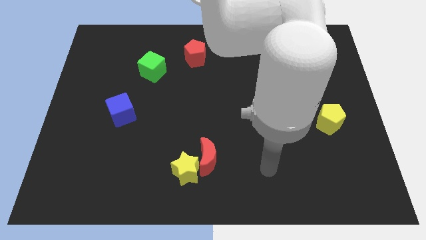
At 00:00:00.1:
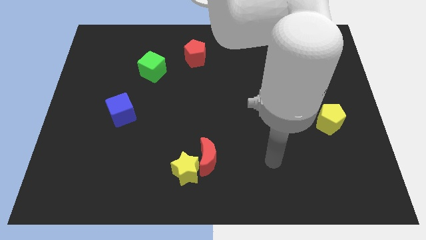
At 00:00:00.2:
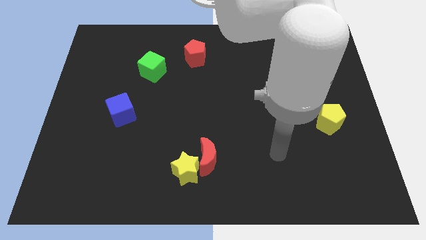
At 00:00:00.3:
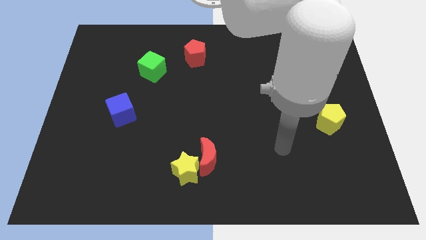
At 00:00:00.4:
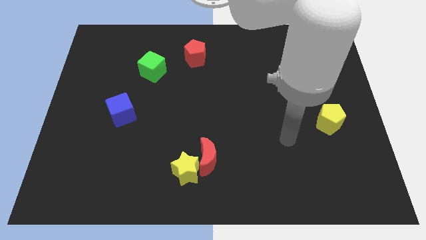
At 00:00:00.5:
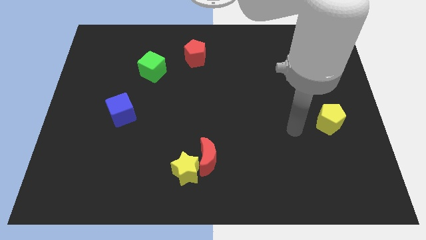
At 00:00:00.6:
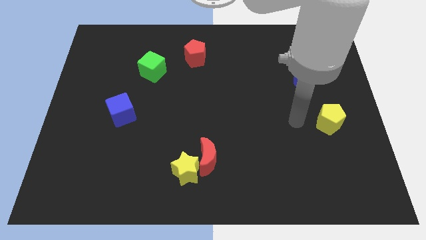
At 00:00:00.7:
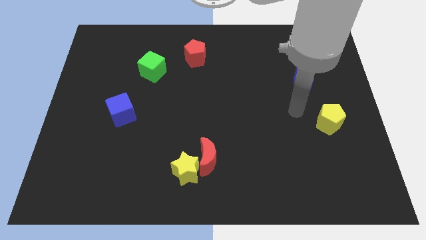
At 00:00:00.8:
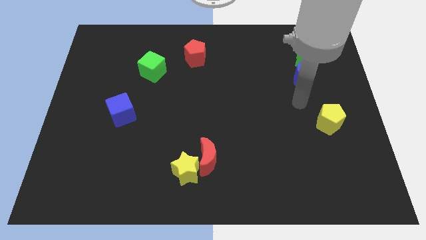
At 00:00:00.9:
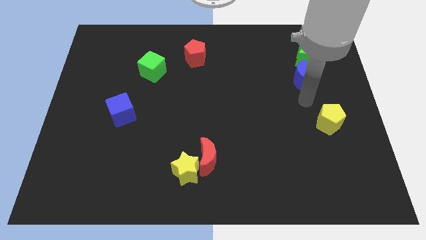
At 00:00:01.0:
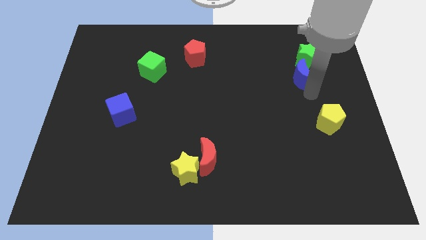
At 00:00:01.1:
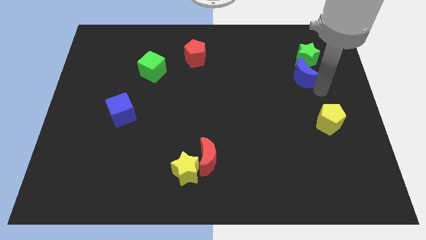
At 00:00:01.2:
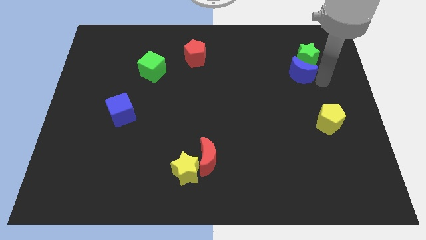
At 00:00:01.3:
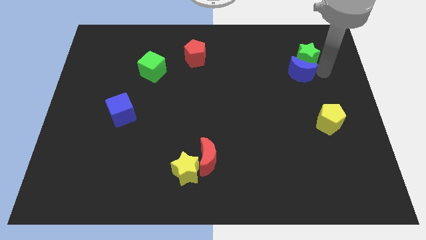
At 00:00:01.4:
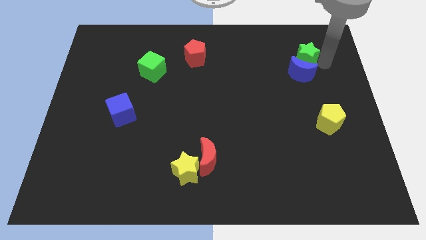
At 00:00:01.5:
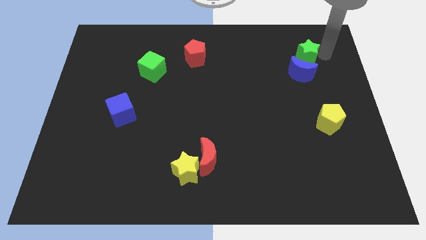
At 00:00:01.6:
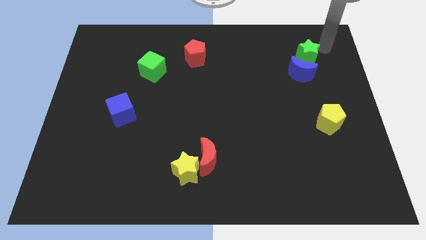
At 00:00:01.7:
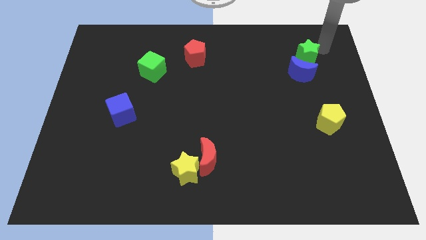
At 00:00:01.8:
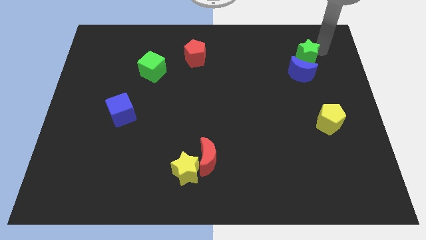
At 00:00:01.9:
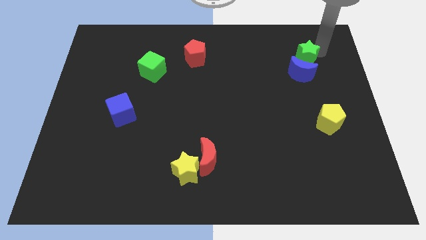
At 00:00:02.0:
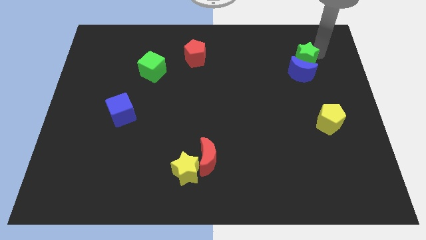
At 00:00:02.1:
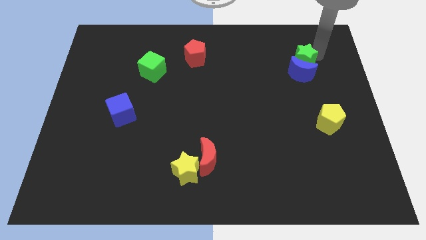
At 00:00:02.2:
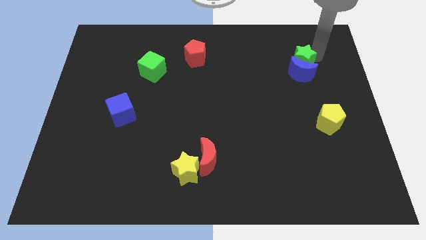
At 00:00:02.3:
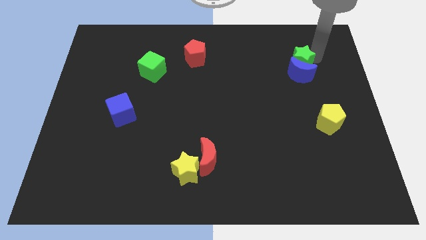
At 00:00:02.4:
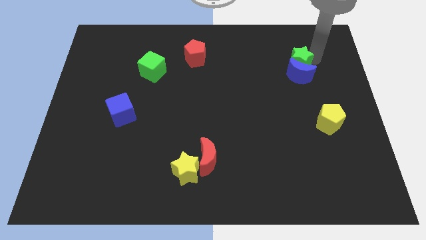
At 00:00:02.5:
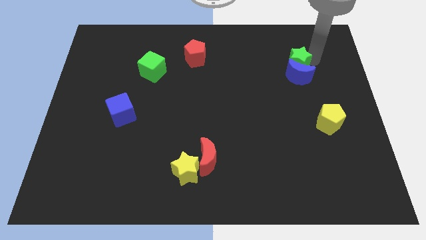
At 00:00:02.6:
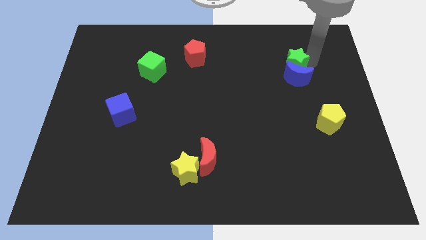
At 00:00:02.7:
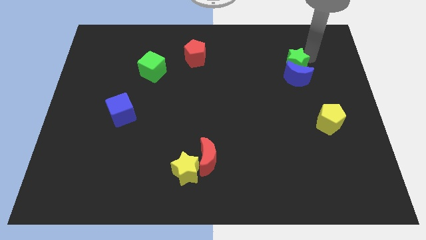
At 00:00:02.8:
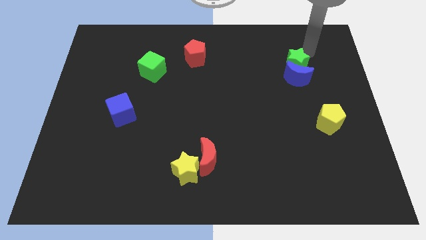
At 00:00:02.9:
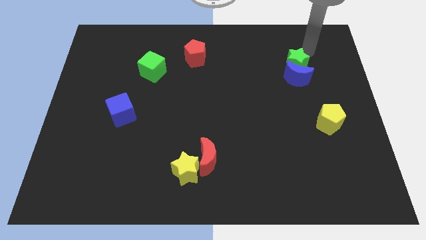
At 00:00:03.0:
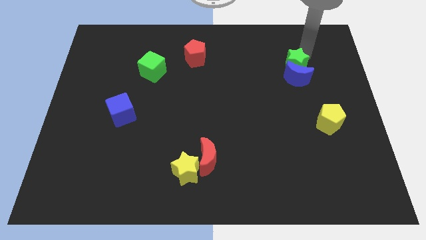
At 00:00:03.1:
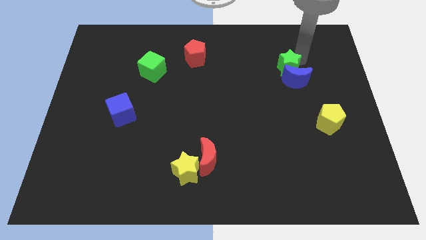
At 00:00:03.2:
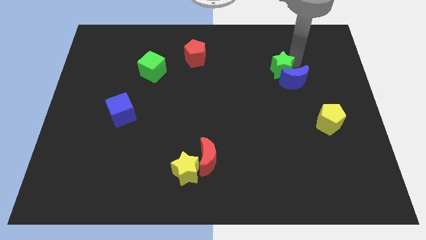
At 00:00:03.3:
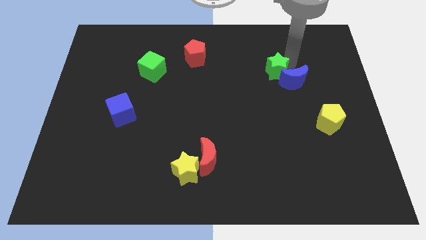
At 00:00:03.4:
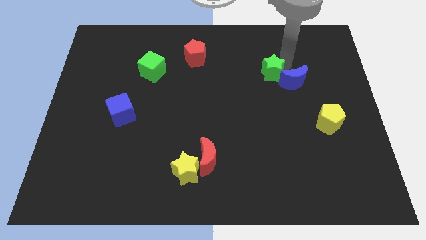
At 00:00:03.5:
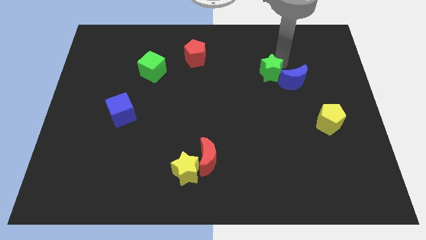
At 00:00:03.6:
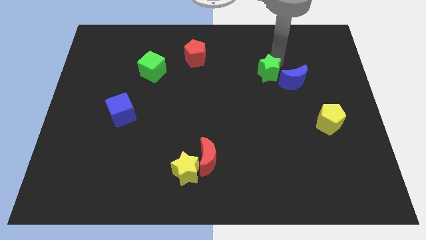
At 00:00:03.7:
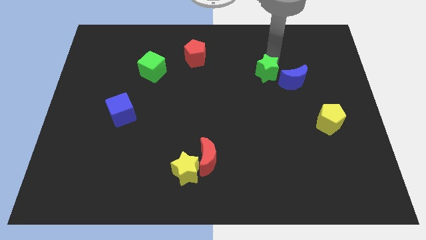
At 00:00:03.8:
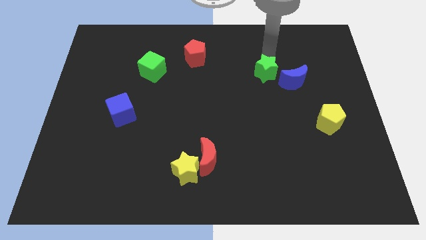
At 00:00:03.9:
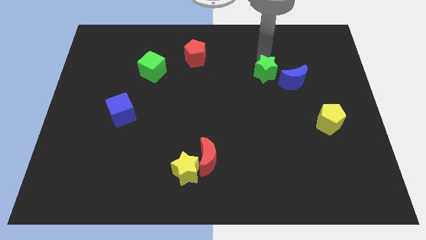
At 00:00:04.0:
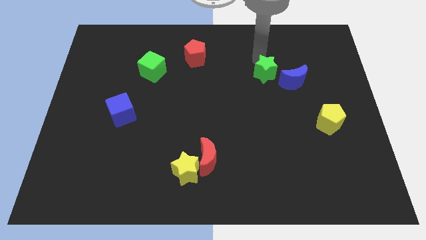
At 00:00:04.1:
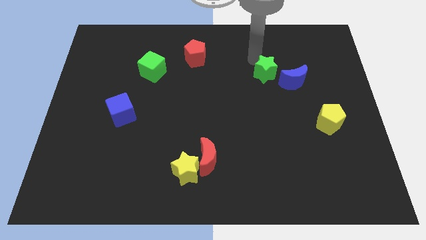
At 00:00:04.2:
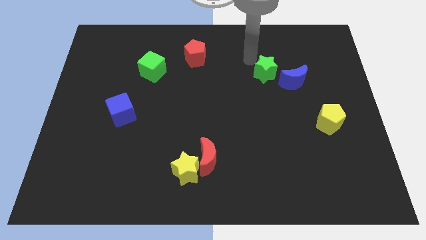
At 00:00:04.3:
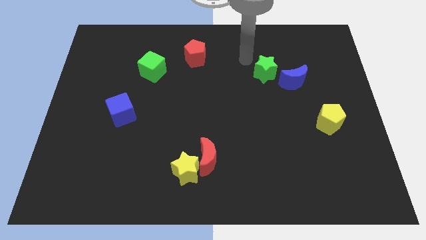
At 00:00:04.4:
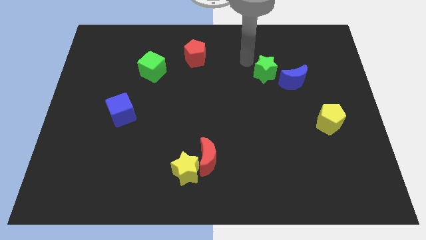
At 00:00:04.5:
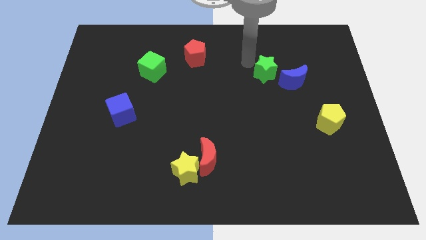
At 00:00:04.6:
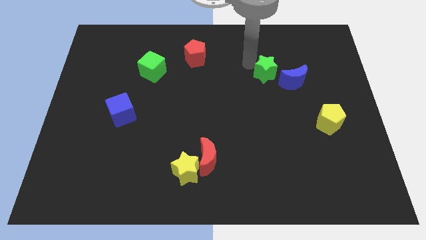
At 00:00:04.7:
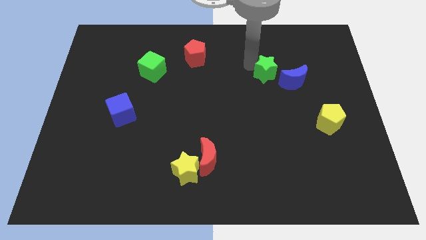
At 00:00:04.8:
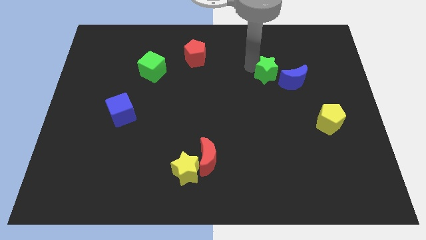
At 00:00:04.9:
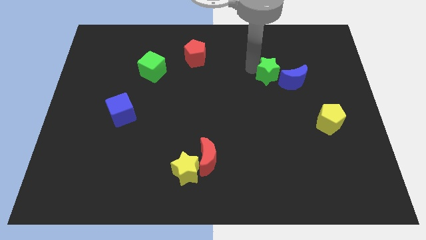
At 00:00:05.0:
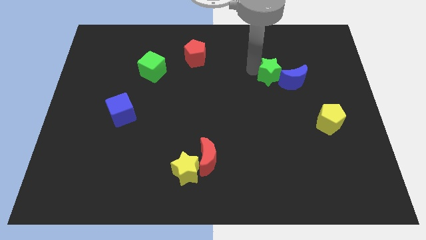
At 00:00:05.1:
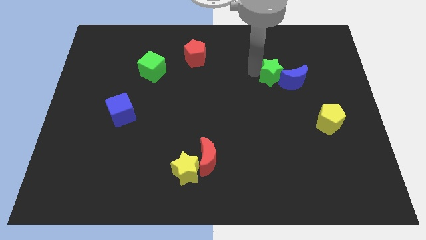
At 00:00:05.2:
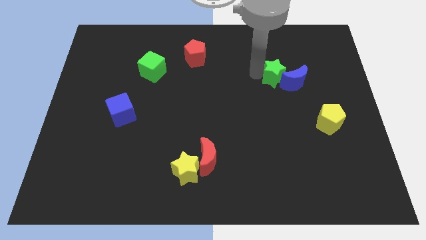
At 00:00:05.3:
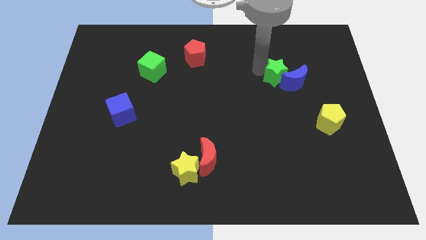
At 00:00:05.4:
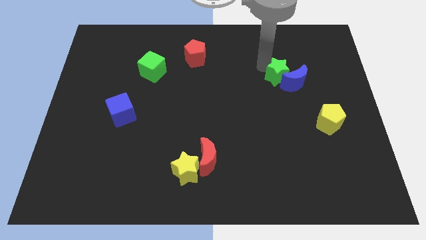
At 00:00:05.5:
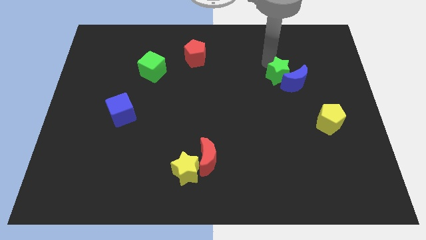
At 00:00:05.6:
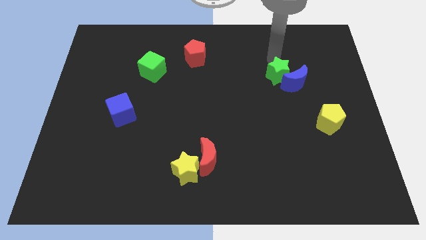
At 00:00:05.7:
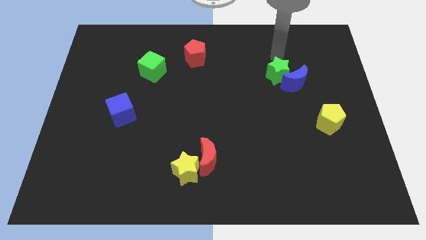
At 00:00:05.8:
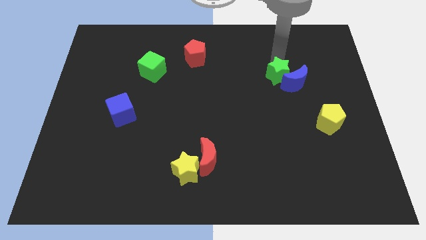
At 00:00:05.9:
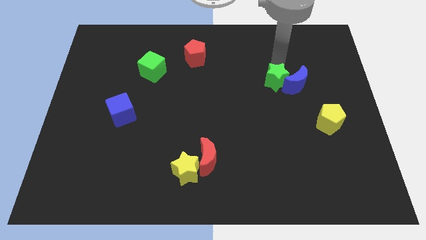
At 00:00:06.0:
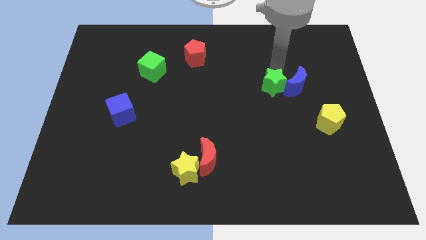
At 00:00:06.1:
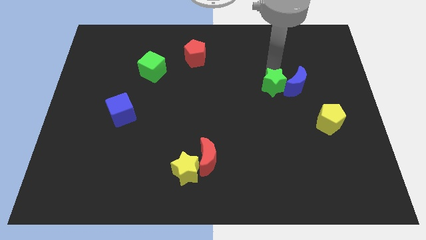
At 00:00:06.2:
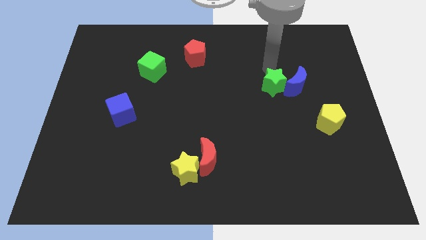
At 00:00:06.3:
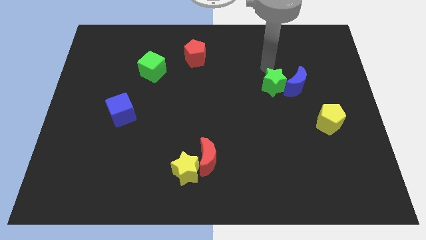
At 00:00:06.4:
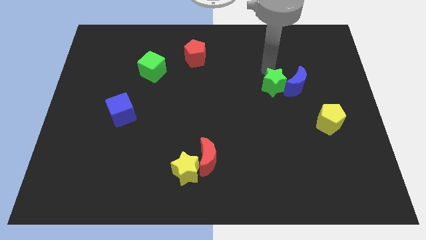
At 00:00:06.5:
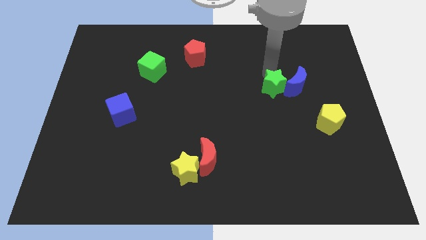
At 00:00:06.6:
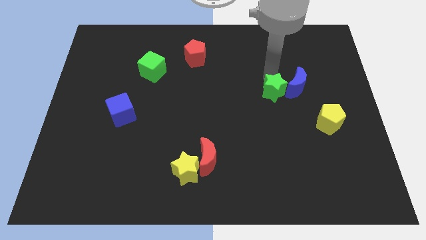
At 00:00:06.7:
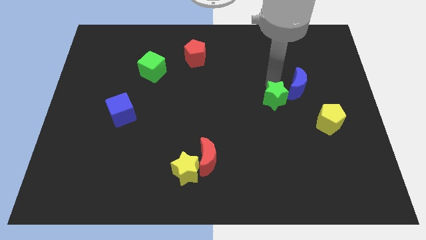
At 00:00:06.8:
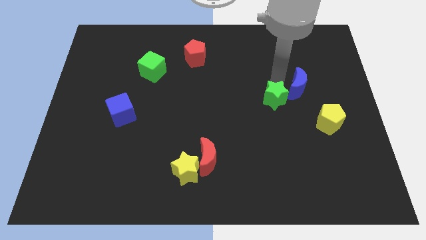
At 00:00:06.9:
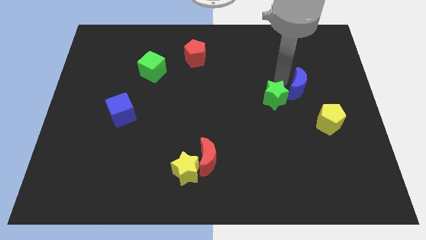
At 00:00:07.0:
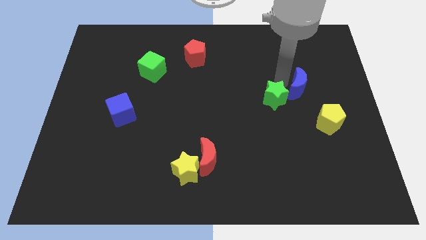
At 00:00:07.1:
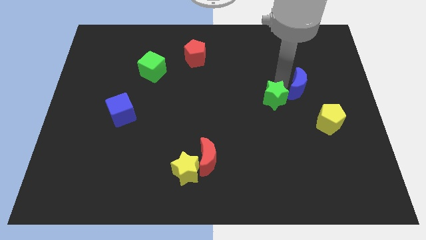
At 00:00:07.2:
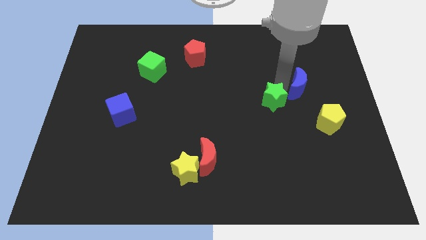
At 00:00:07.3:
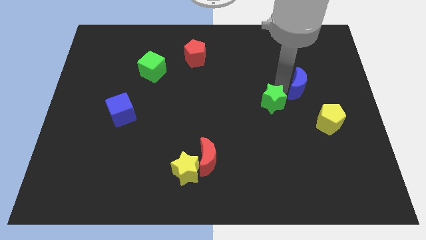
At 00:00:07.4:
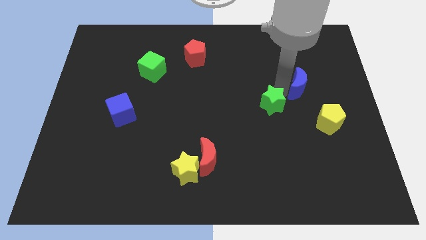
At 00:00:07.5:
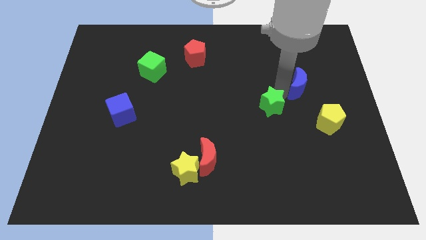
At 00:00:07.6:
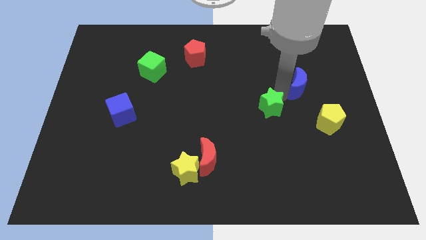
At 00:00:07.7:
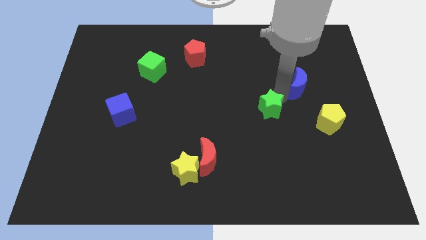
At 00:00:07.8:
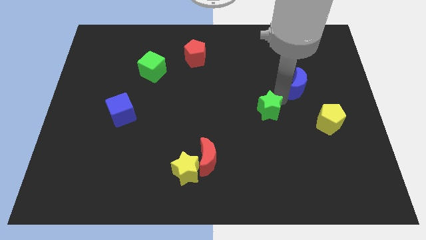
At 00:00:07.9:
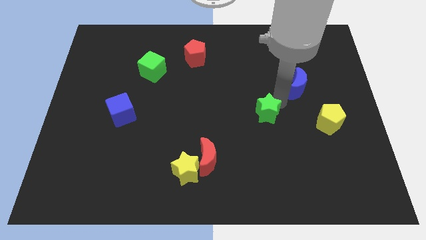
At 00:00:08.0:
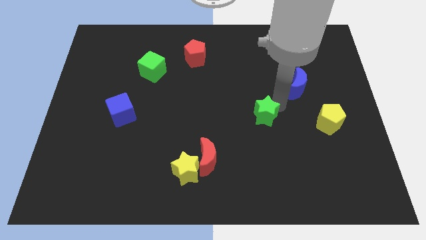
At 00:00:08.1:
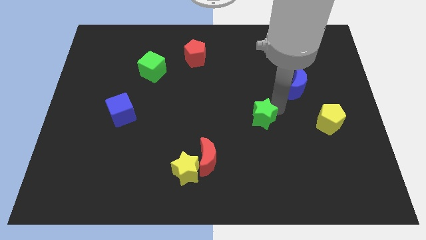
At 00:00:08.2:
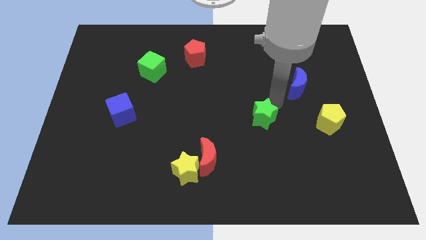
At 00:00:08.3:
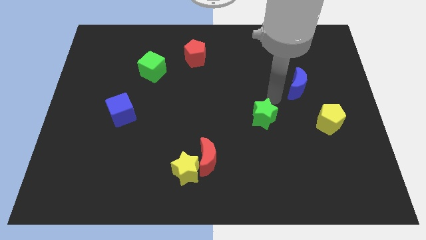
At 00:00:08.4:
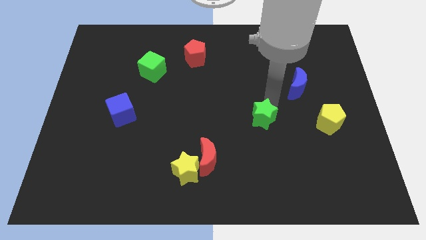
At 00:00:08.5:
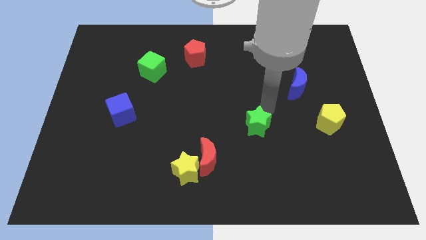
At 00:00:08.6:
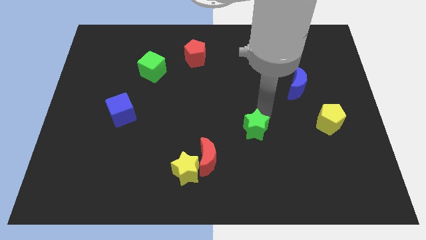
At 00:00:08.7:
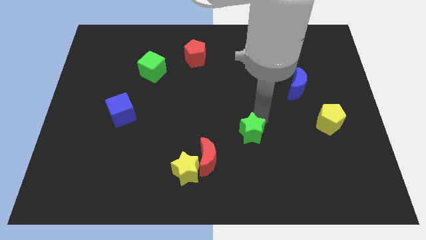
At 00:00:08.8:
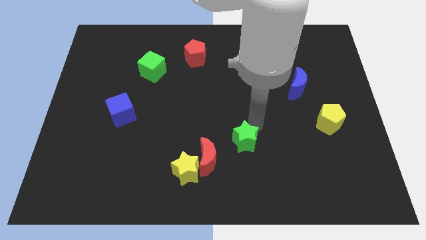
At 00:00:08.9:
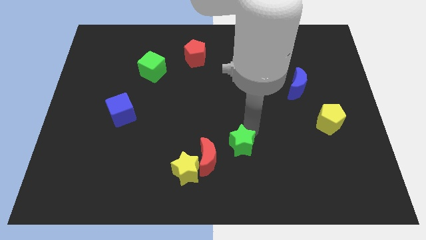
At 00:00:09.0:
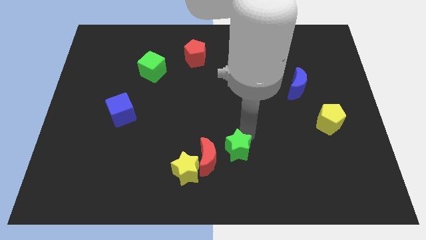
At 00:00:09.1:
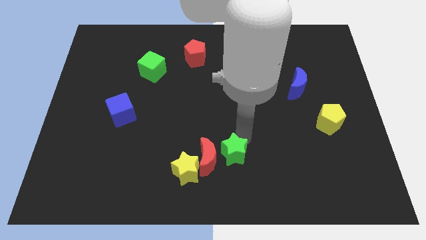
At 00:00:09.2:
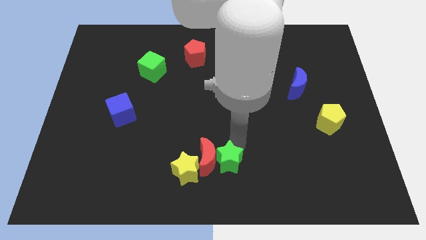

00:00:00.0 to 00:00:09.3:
slide the green star to the bottom
